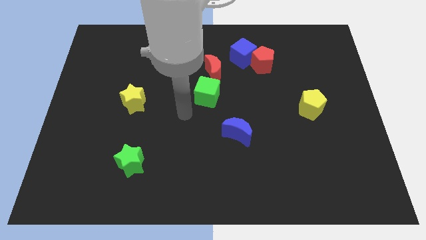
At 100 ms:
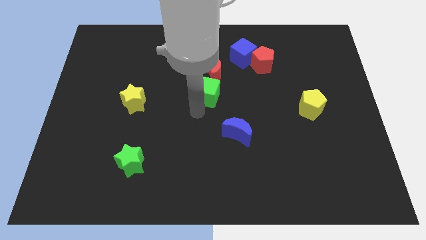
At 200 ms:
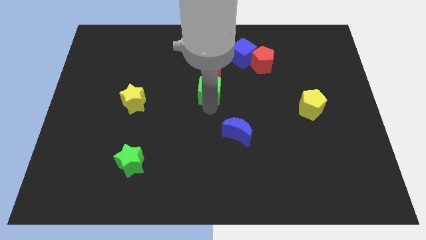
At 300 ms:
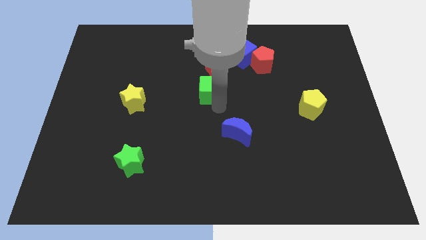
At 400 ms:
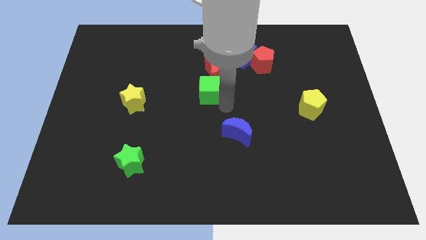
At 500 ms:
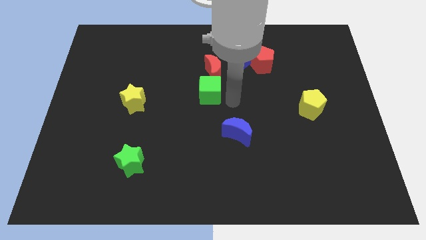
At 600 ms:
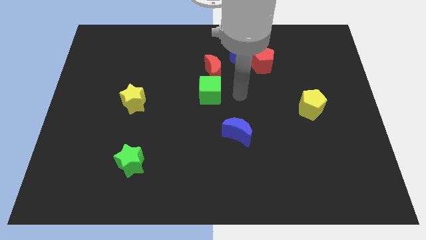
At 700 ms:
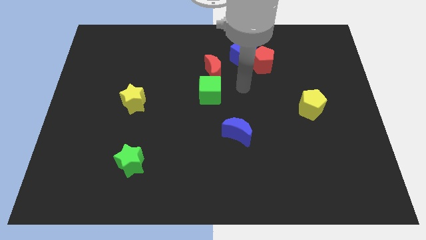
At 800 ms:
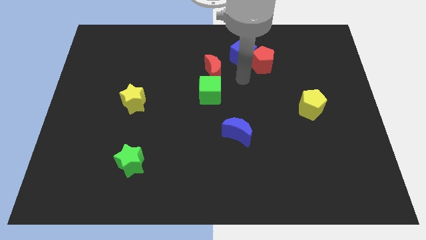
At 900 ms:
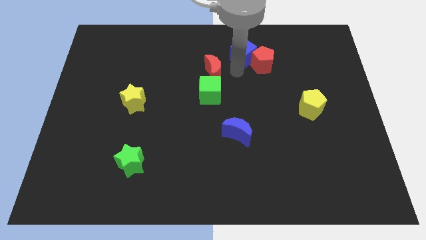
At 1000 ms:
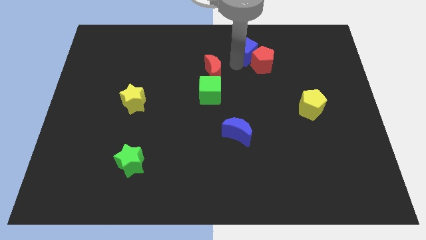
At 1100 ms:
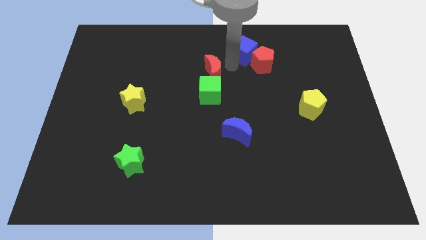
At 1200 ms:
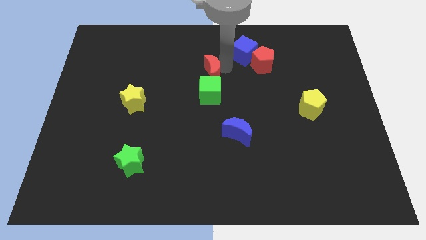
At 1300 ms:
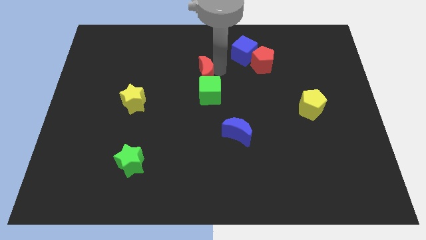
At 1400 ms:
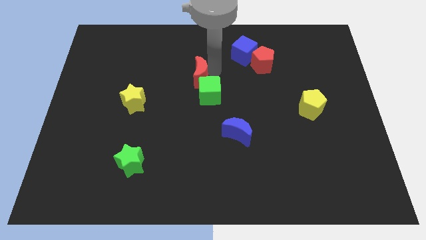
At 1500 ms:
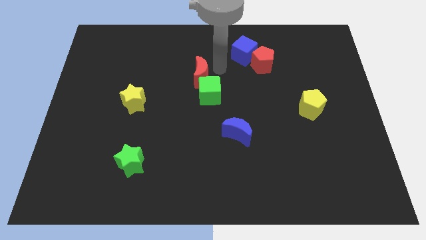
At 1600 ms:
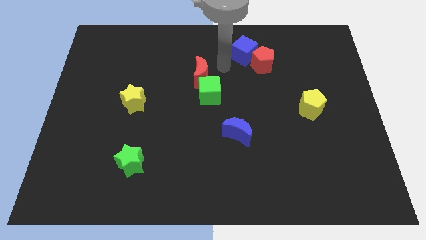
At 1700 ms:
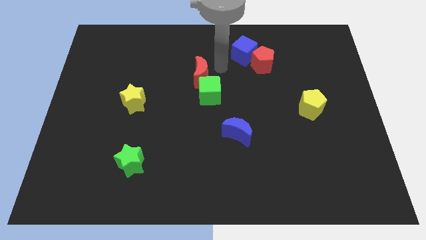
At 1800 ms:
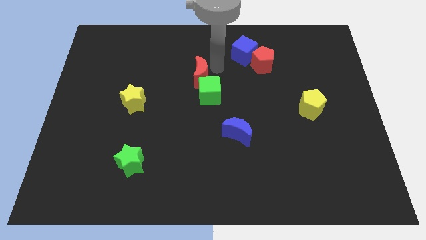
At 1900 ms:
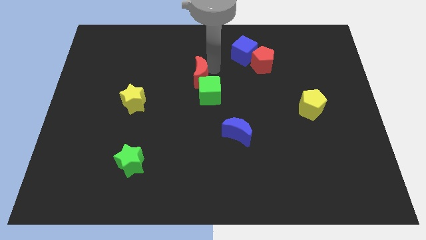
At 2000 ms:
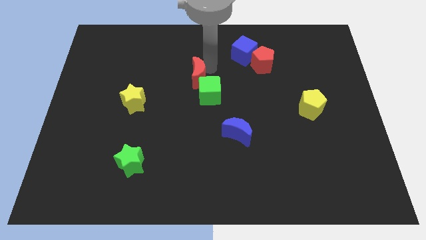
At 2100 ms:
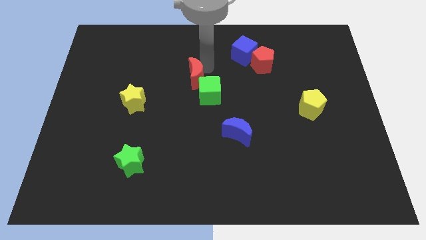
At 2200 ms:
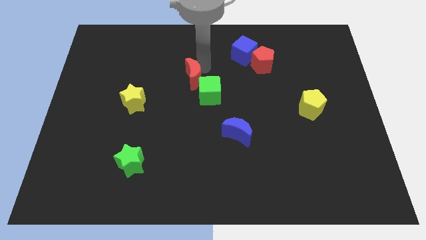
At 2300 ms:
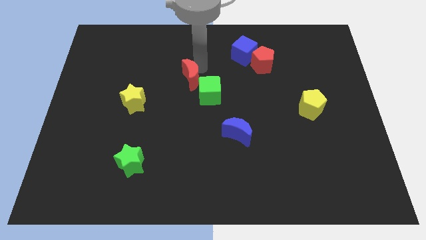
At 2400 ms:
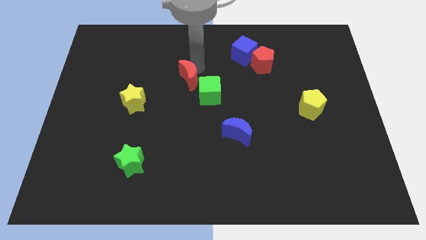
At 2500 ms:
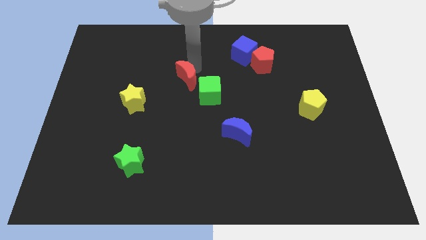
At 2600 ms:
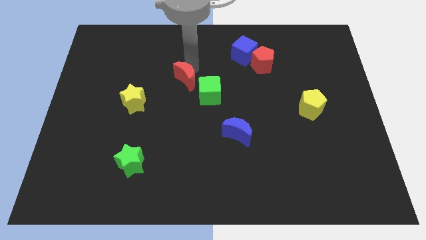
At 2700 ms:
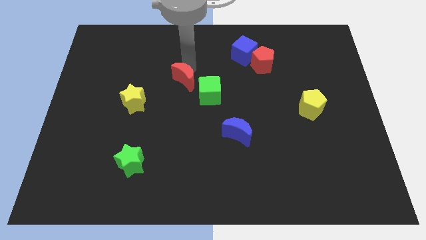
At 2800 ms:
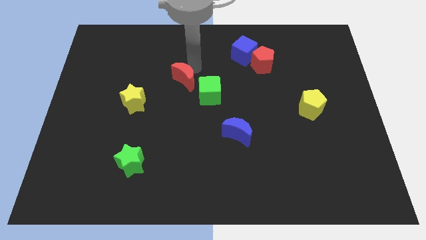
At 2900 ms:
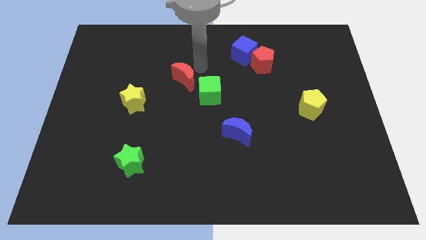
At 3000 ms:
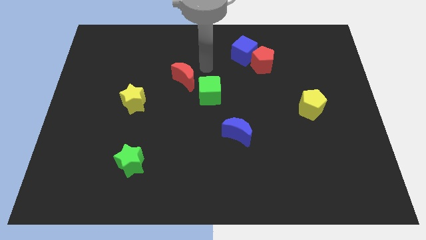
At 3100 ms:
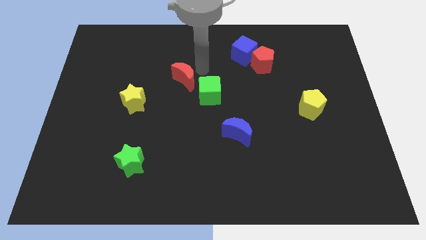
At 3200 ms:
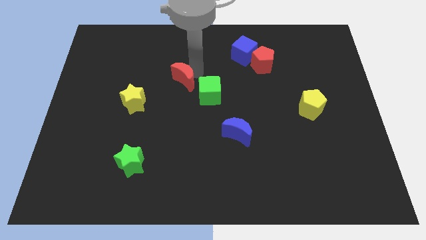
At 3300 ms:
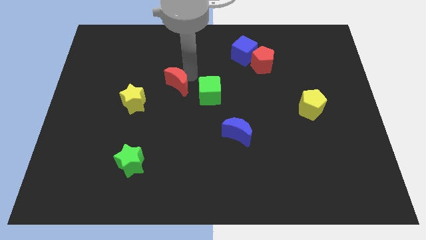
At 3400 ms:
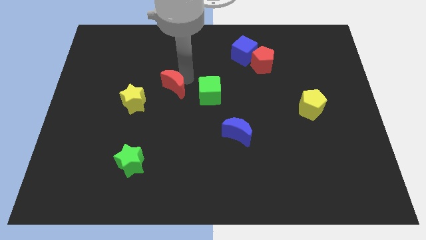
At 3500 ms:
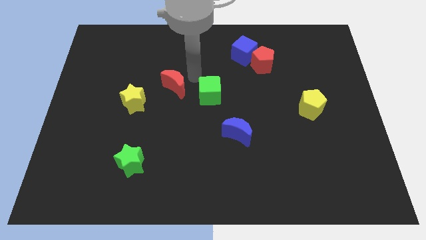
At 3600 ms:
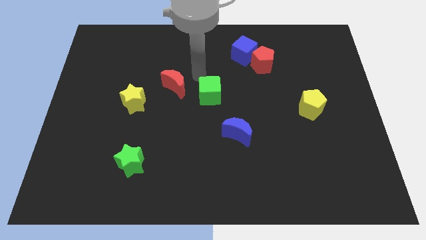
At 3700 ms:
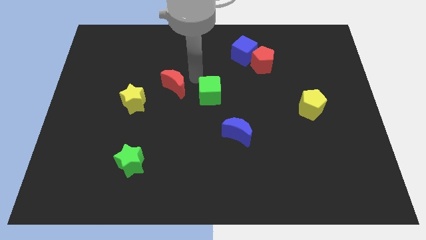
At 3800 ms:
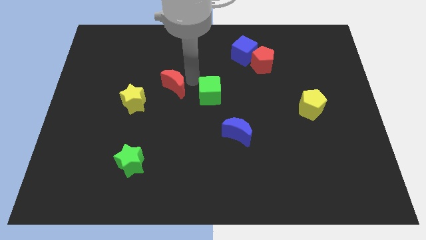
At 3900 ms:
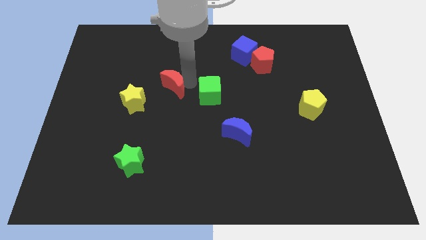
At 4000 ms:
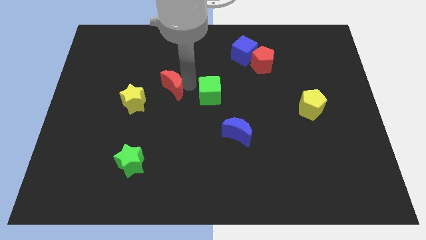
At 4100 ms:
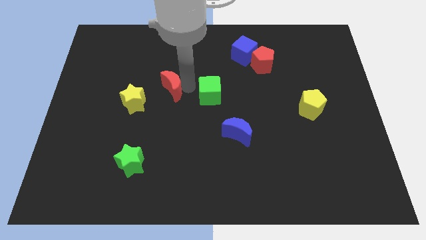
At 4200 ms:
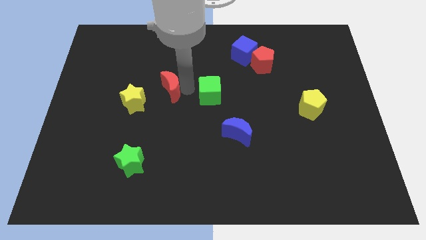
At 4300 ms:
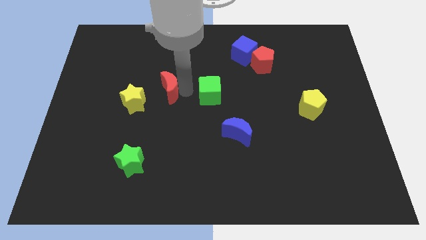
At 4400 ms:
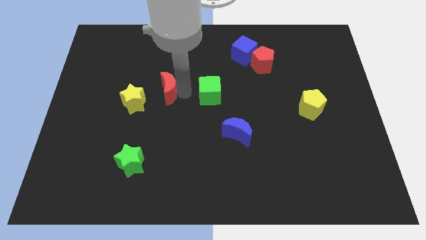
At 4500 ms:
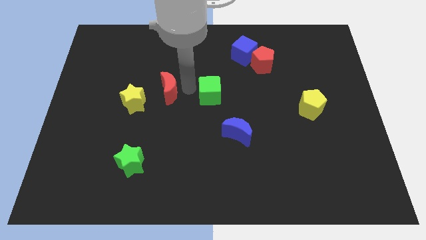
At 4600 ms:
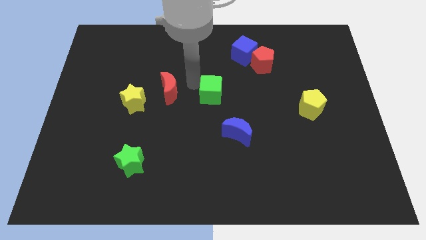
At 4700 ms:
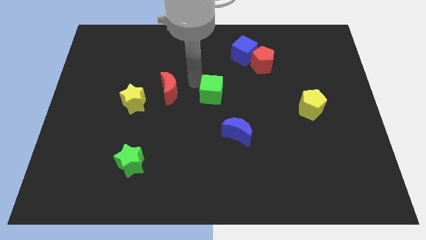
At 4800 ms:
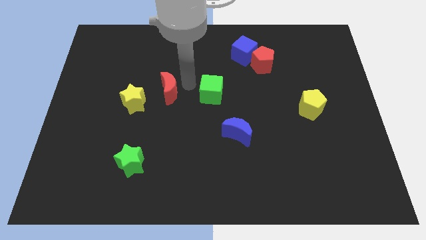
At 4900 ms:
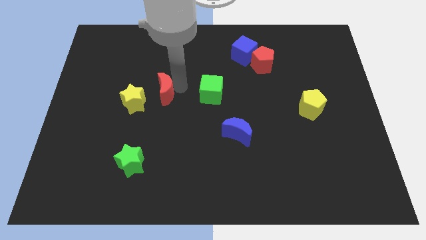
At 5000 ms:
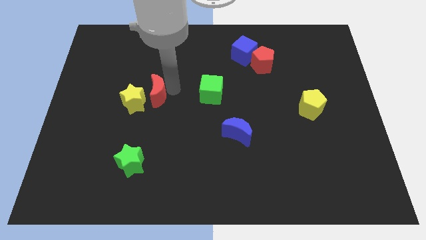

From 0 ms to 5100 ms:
move the red moon next to the yellow star

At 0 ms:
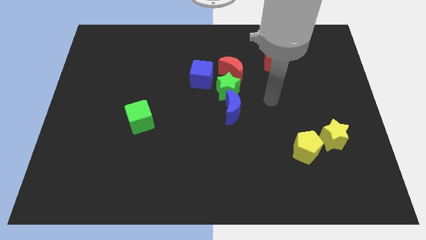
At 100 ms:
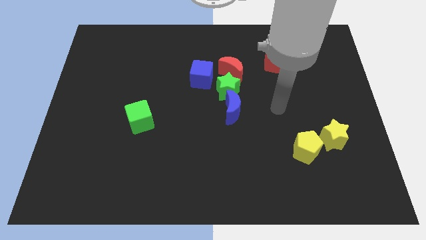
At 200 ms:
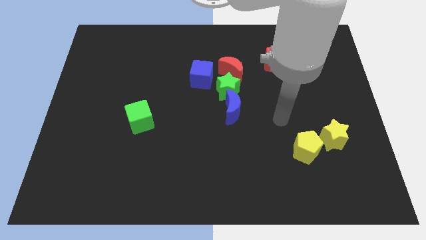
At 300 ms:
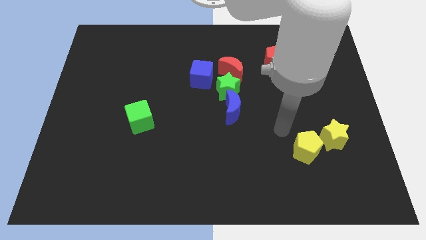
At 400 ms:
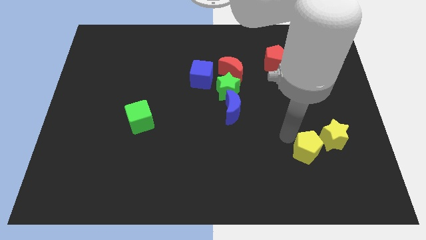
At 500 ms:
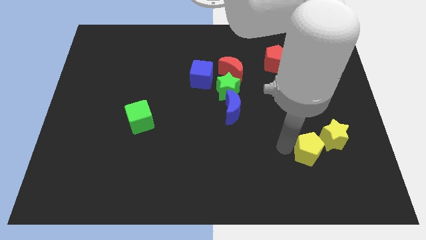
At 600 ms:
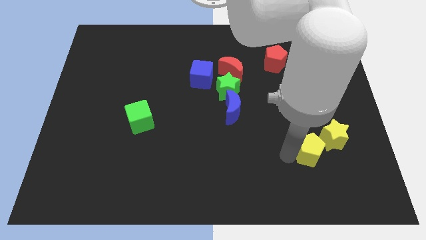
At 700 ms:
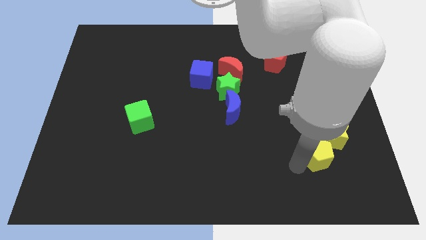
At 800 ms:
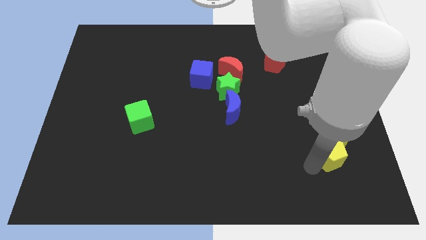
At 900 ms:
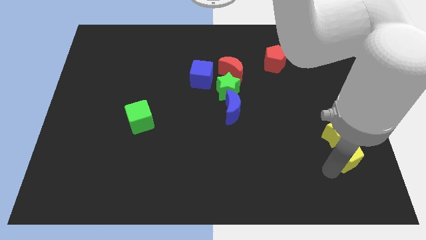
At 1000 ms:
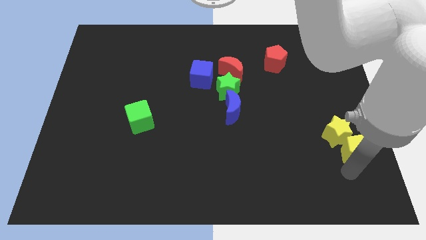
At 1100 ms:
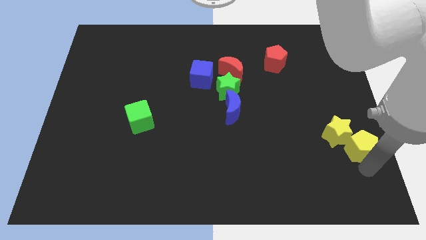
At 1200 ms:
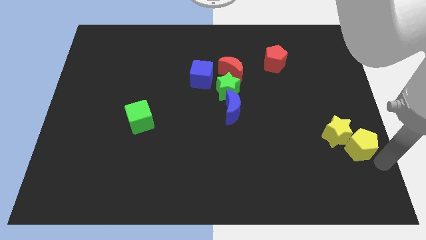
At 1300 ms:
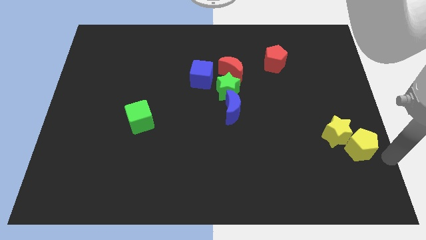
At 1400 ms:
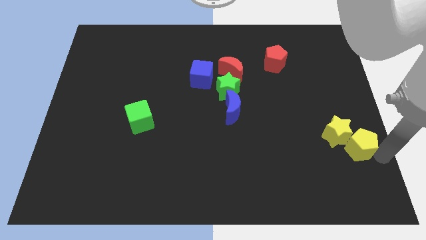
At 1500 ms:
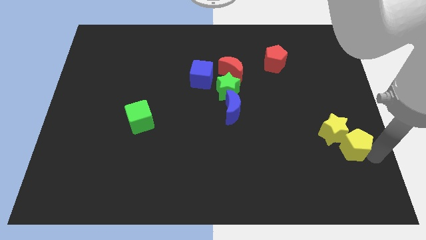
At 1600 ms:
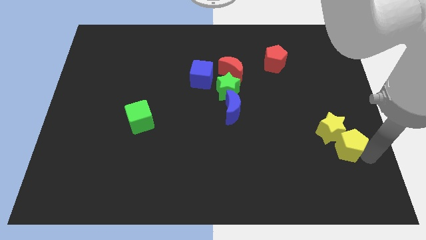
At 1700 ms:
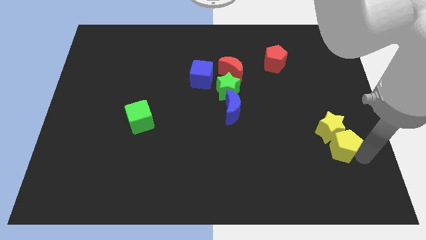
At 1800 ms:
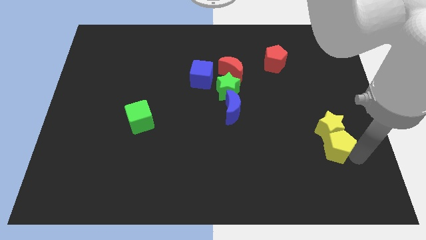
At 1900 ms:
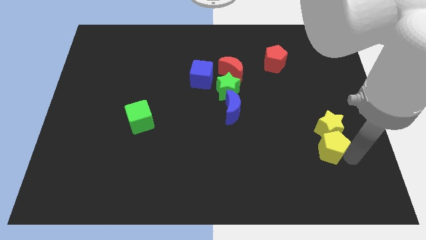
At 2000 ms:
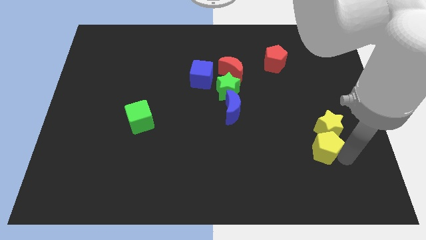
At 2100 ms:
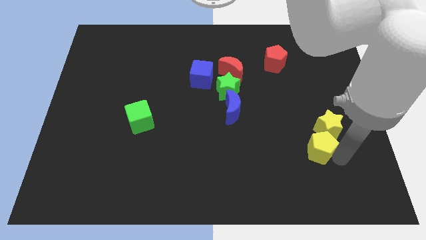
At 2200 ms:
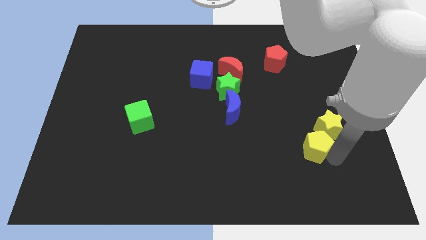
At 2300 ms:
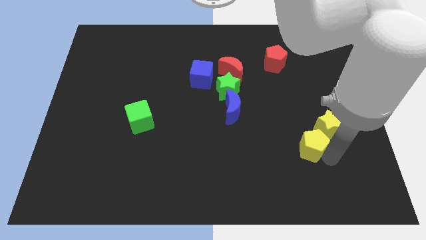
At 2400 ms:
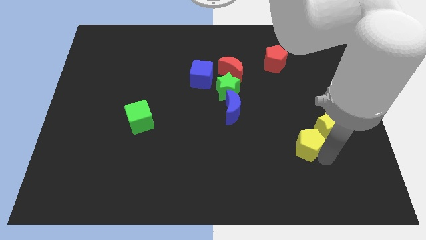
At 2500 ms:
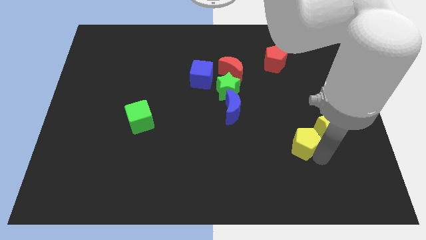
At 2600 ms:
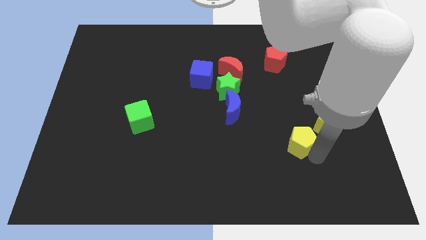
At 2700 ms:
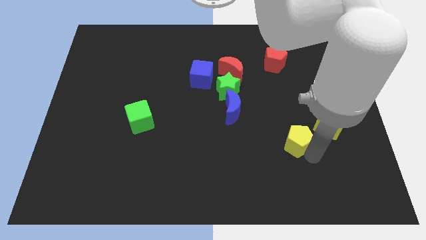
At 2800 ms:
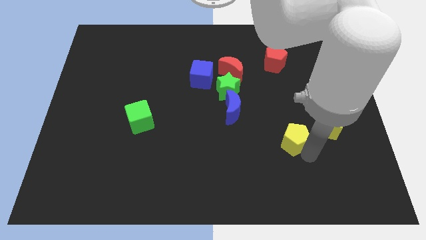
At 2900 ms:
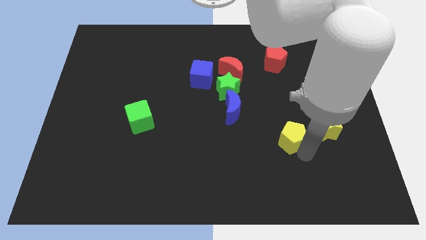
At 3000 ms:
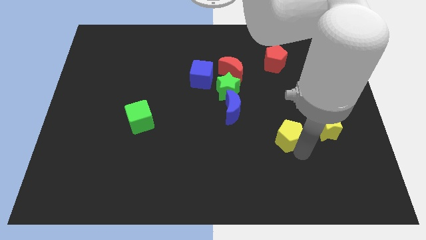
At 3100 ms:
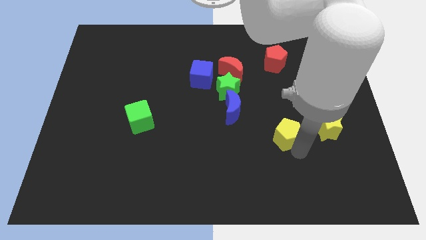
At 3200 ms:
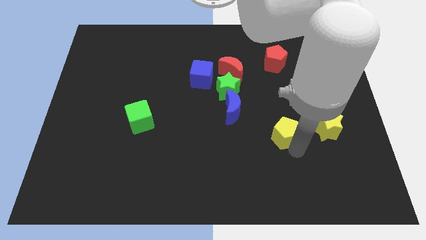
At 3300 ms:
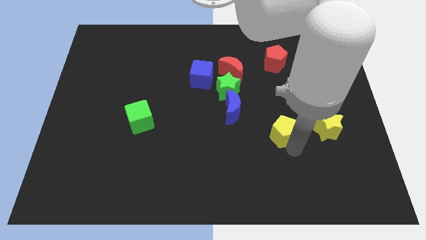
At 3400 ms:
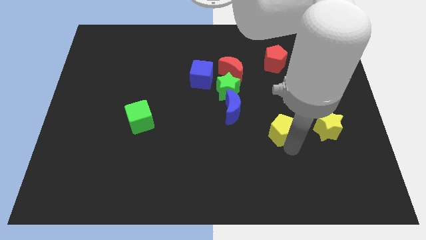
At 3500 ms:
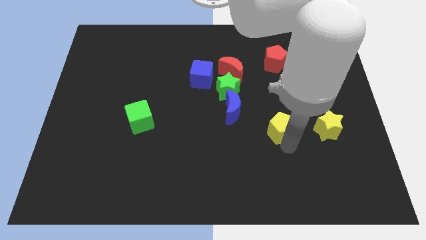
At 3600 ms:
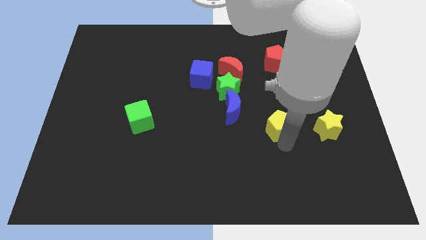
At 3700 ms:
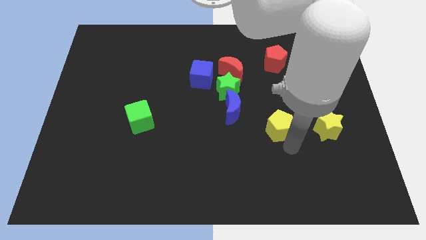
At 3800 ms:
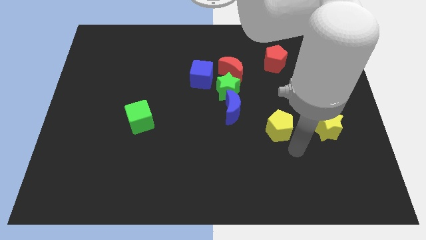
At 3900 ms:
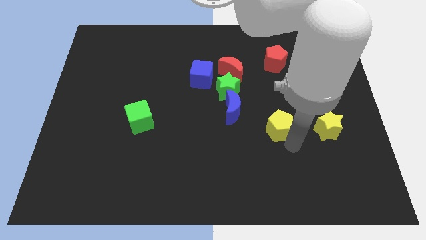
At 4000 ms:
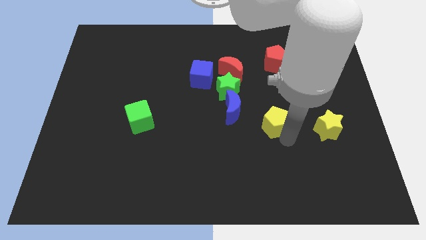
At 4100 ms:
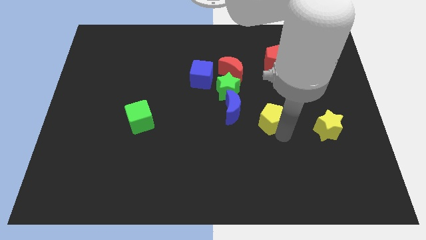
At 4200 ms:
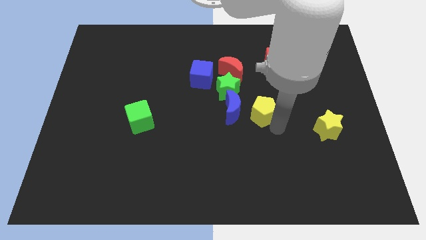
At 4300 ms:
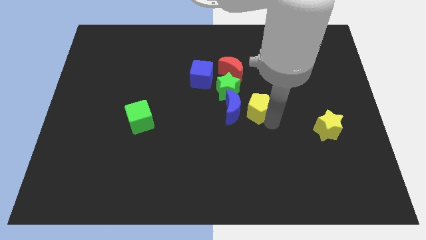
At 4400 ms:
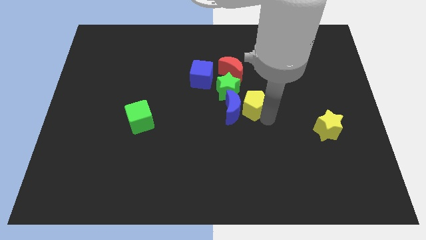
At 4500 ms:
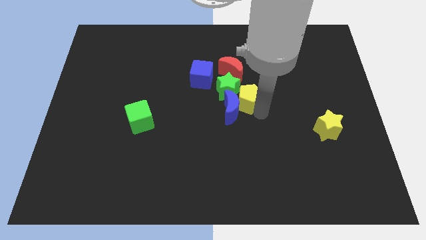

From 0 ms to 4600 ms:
put the yellow pentagon next to the green star
